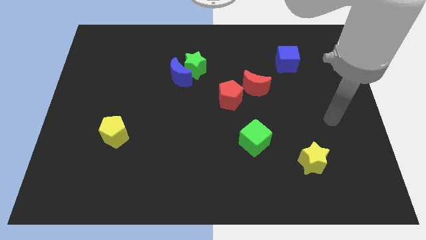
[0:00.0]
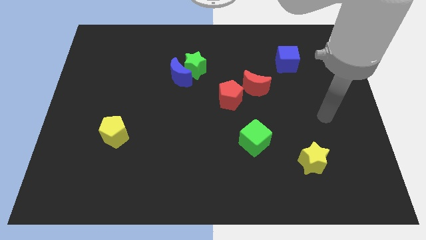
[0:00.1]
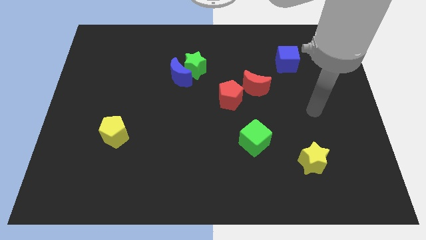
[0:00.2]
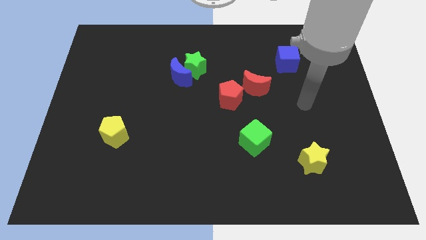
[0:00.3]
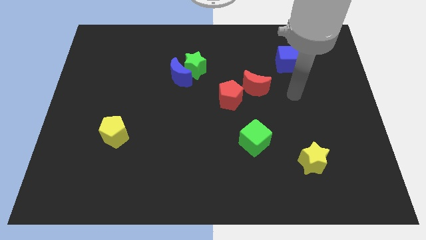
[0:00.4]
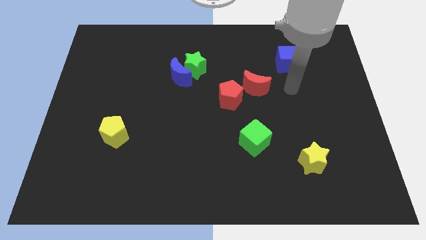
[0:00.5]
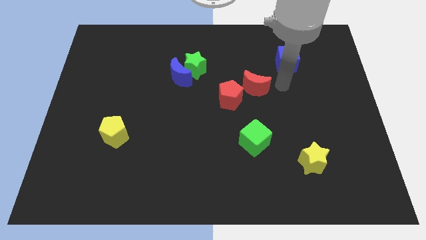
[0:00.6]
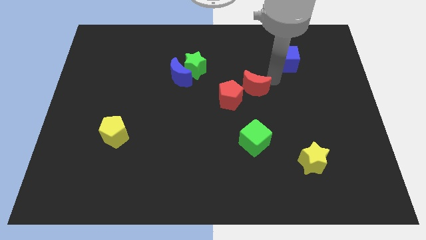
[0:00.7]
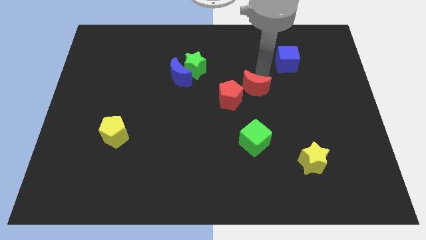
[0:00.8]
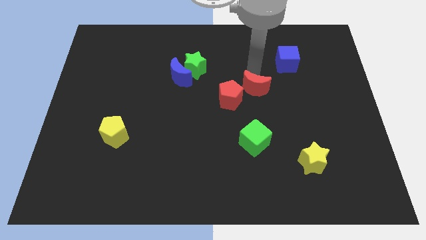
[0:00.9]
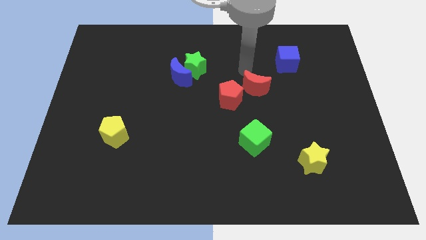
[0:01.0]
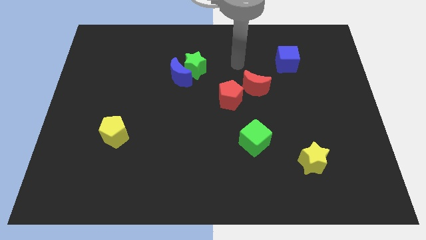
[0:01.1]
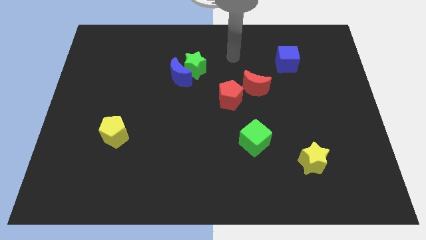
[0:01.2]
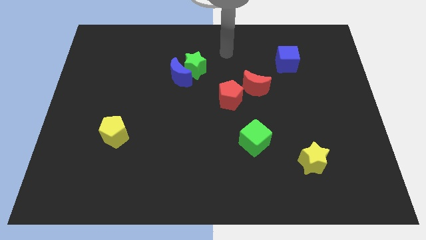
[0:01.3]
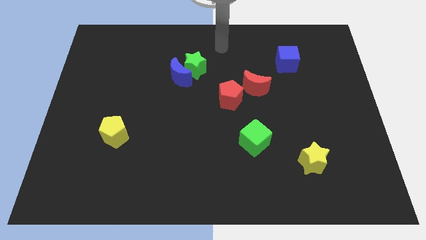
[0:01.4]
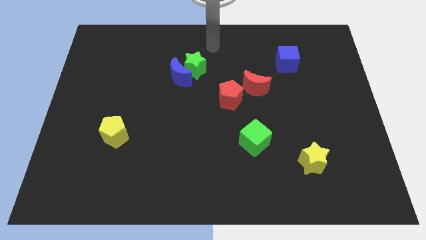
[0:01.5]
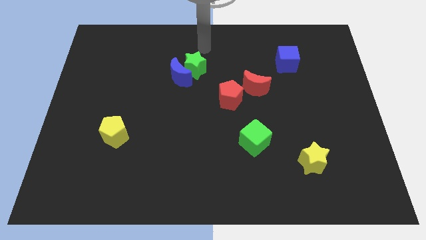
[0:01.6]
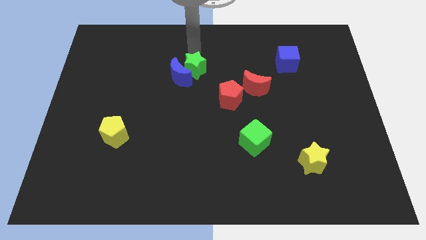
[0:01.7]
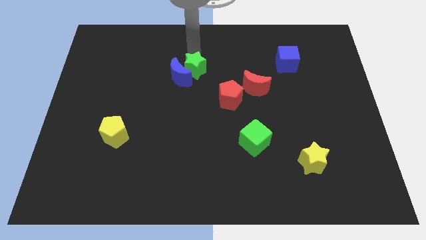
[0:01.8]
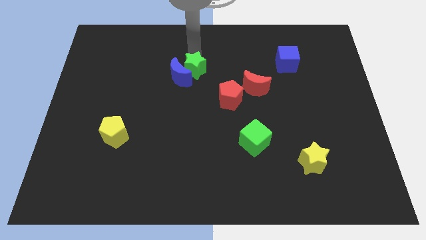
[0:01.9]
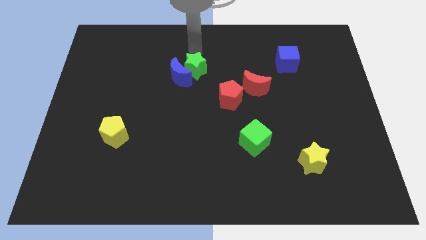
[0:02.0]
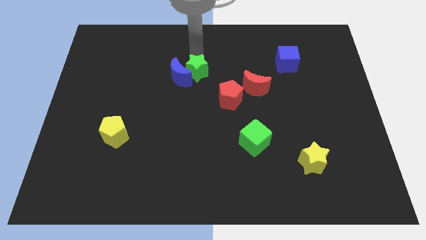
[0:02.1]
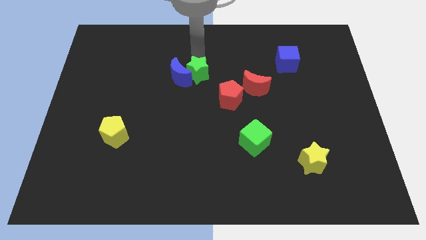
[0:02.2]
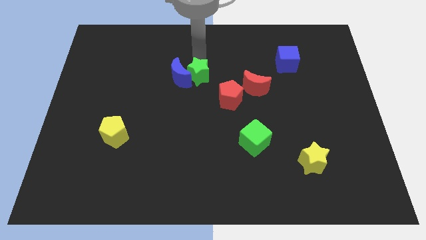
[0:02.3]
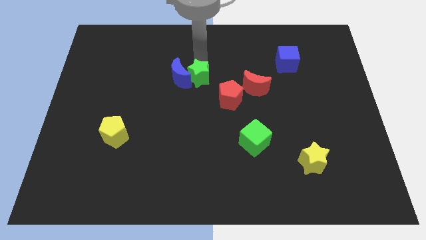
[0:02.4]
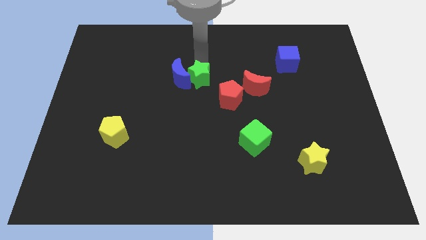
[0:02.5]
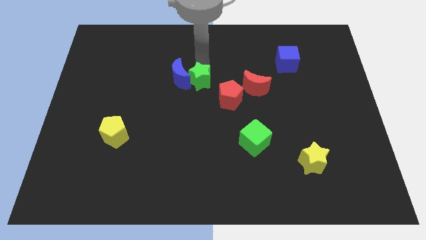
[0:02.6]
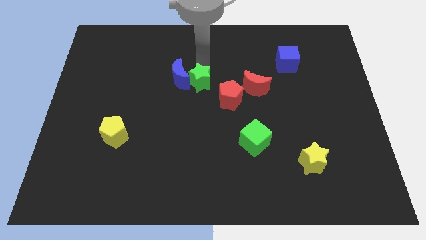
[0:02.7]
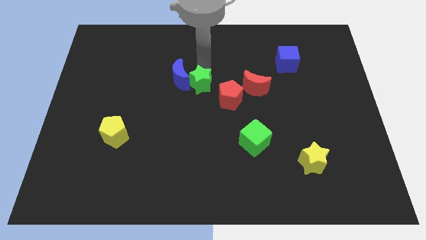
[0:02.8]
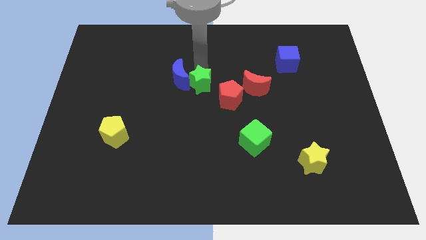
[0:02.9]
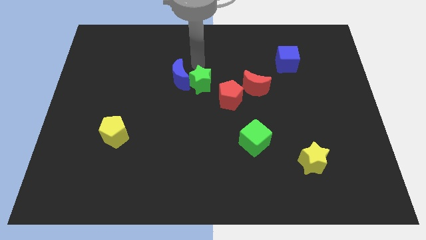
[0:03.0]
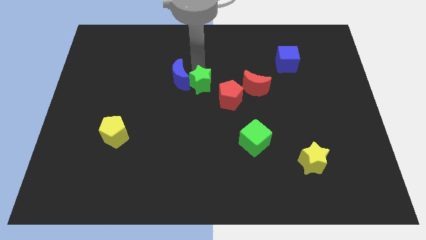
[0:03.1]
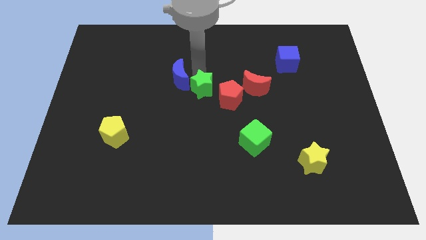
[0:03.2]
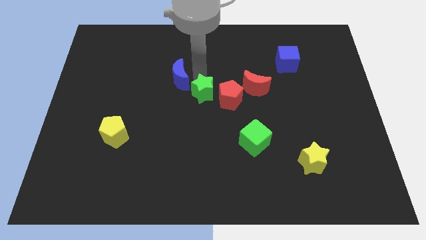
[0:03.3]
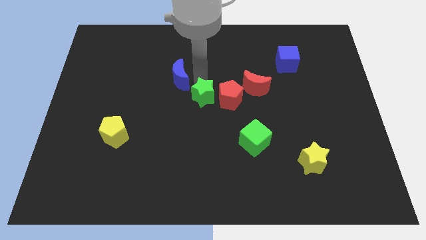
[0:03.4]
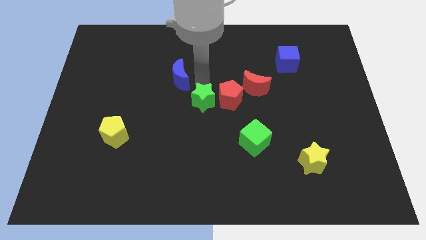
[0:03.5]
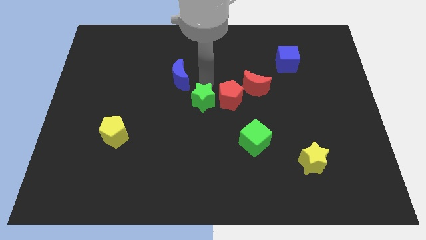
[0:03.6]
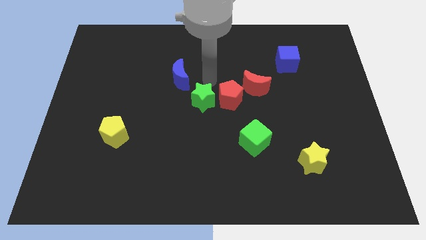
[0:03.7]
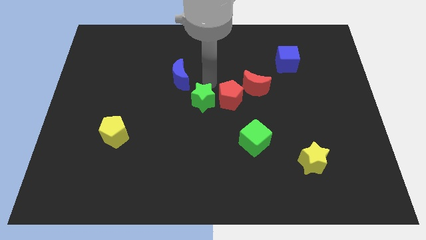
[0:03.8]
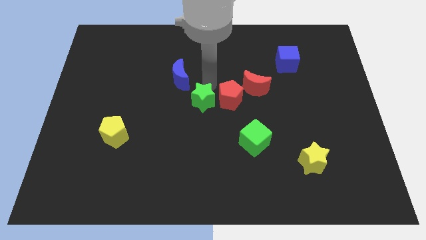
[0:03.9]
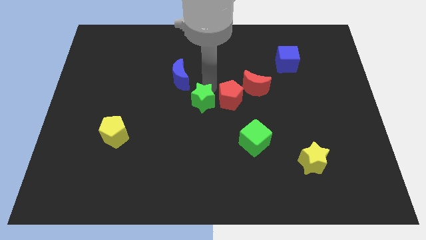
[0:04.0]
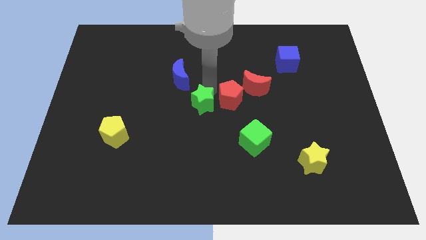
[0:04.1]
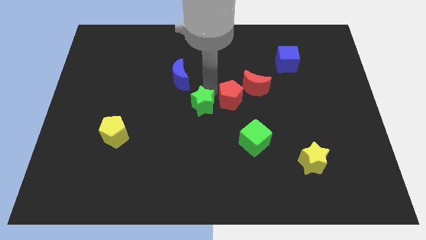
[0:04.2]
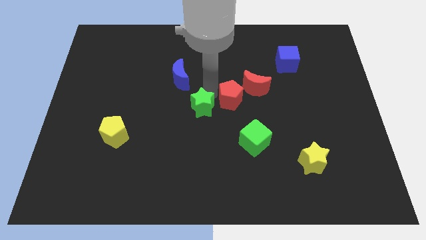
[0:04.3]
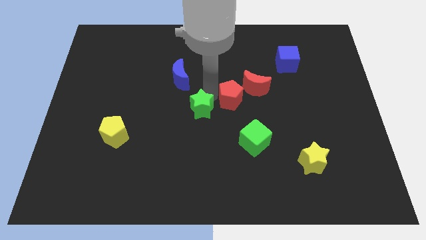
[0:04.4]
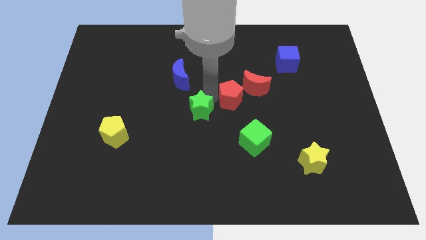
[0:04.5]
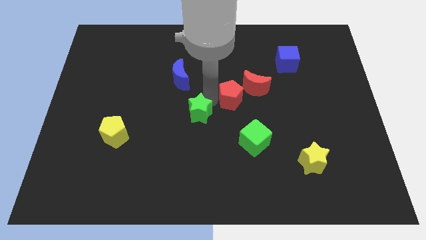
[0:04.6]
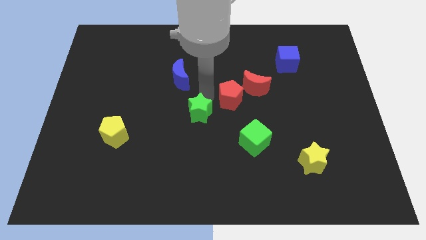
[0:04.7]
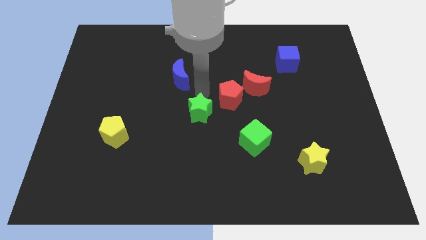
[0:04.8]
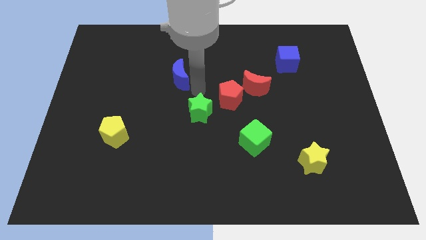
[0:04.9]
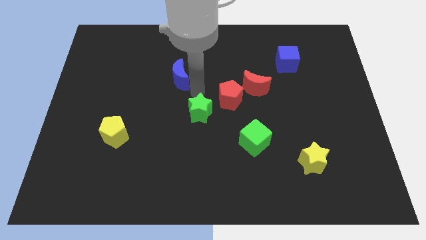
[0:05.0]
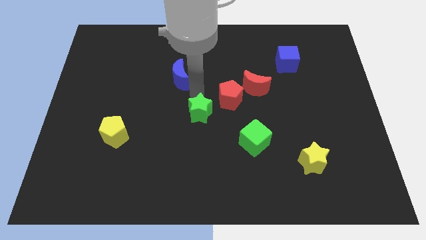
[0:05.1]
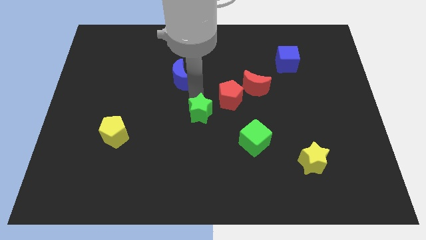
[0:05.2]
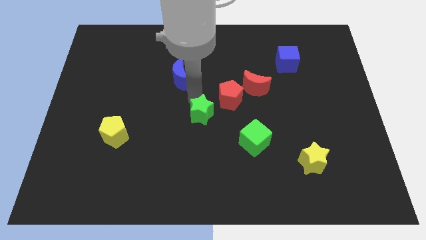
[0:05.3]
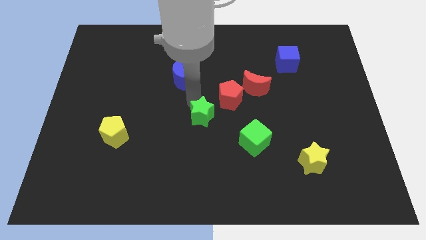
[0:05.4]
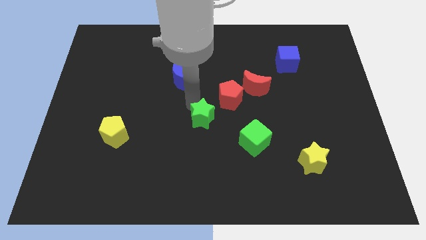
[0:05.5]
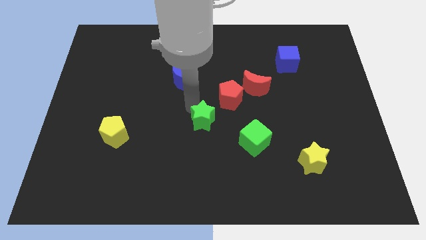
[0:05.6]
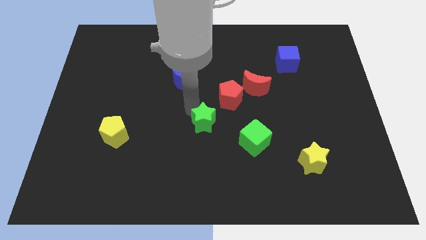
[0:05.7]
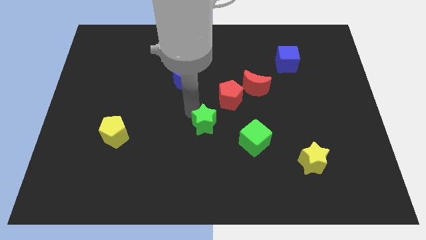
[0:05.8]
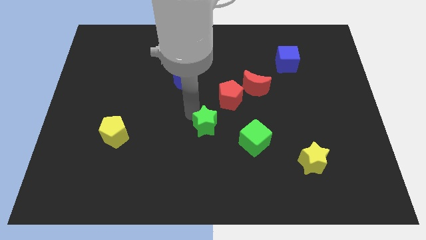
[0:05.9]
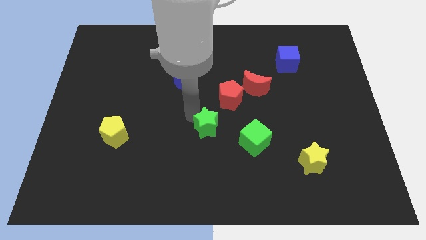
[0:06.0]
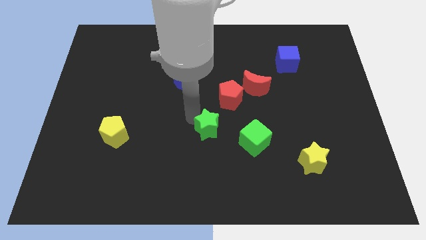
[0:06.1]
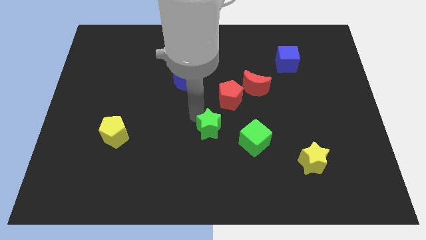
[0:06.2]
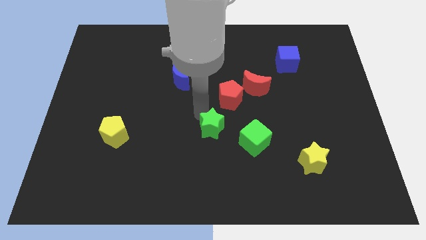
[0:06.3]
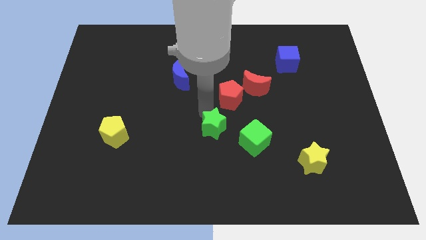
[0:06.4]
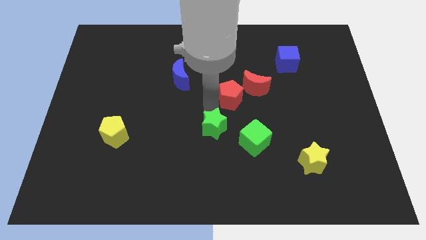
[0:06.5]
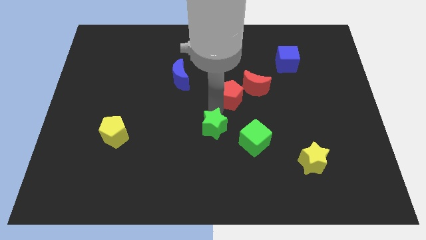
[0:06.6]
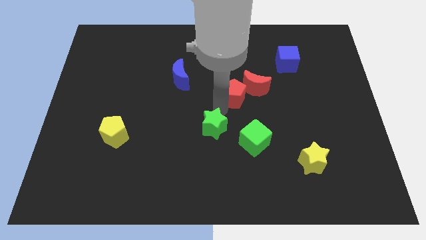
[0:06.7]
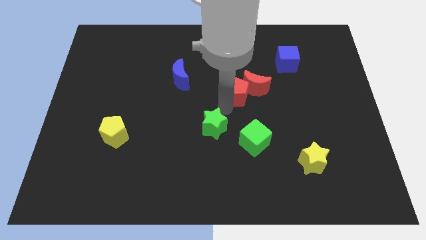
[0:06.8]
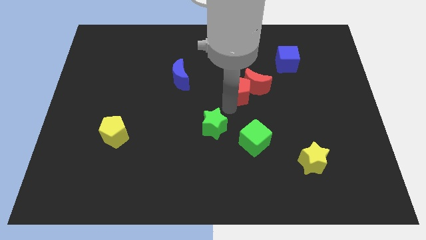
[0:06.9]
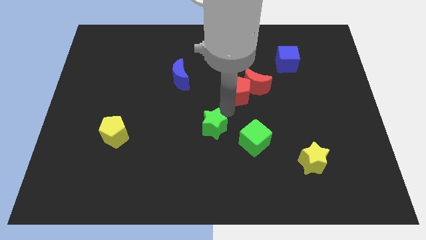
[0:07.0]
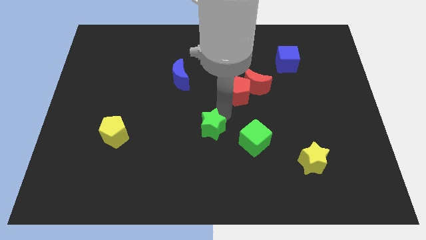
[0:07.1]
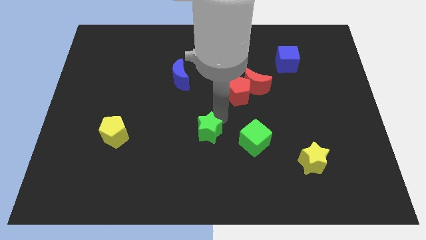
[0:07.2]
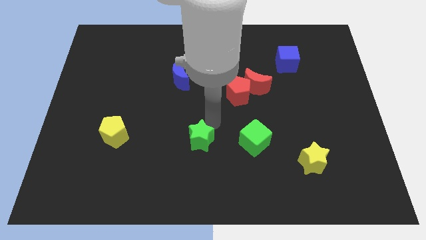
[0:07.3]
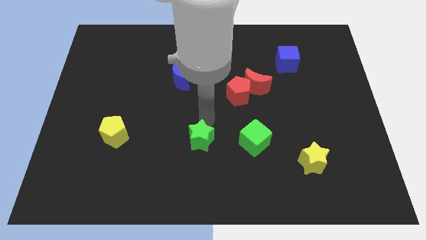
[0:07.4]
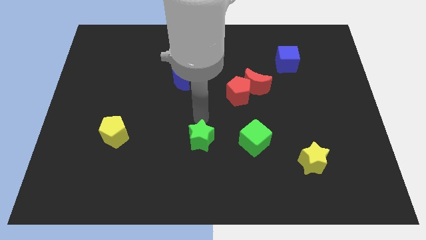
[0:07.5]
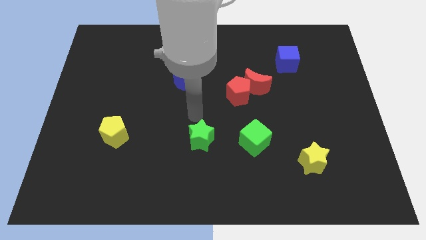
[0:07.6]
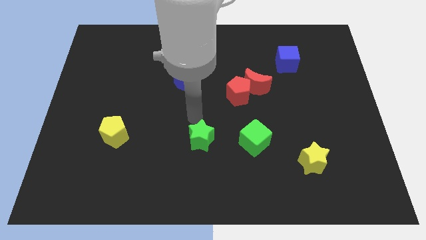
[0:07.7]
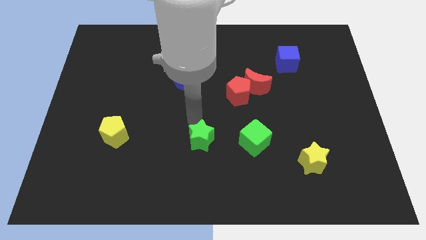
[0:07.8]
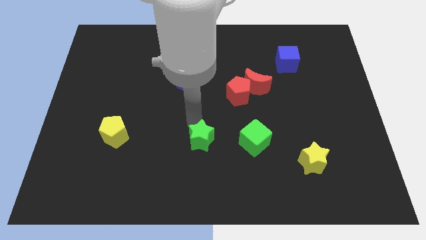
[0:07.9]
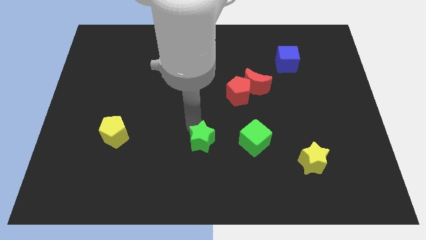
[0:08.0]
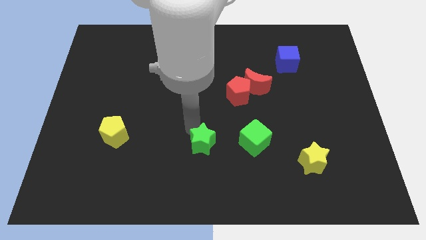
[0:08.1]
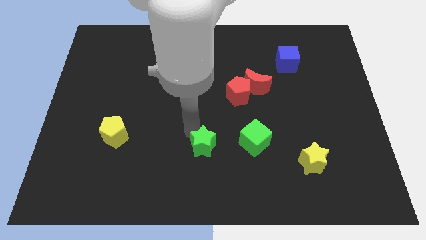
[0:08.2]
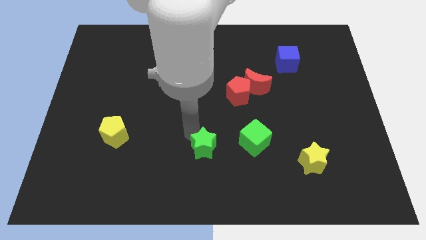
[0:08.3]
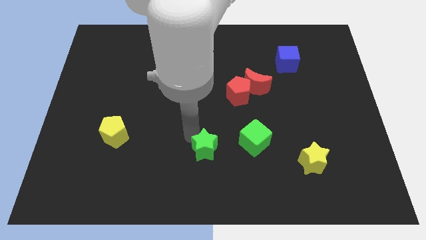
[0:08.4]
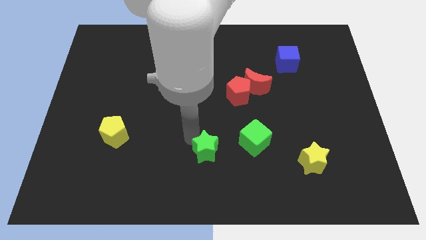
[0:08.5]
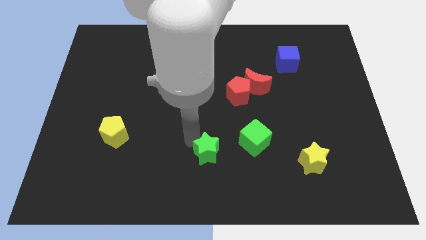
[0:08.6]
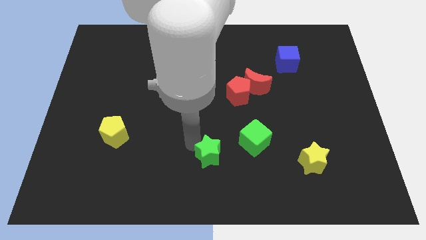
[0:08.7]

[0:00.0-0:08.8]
move the green star to the bottom side
